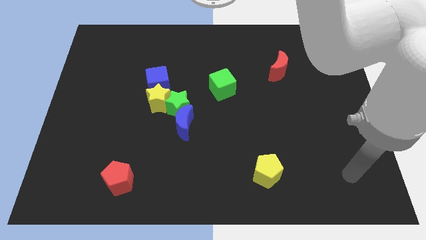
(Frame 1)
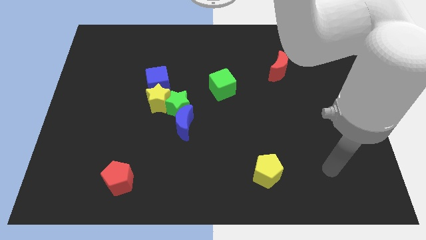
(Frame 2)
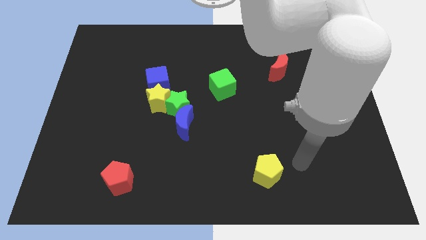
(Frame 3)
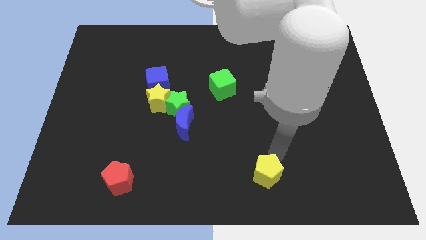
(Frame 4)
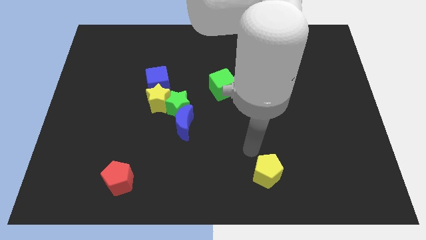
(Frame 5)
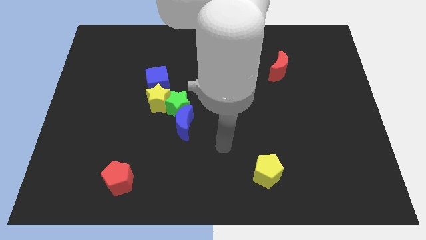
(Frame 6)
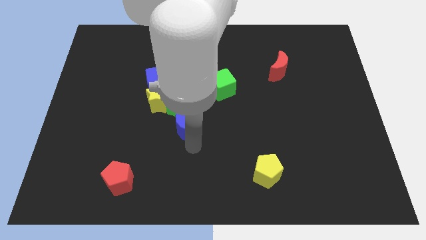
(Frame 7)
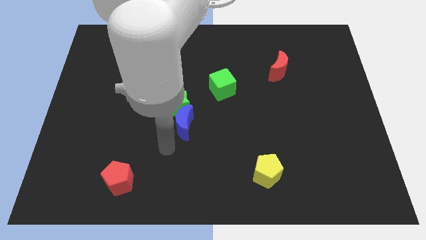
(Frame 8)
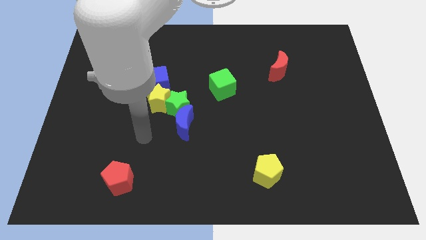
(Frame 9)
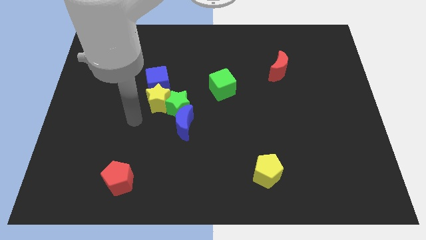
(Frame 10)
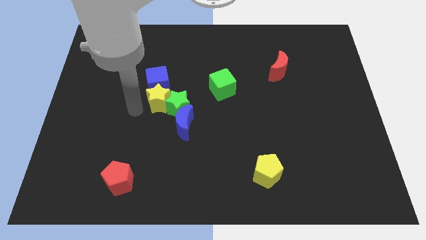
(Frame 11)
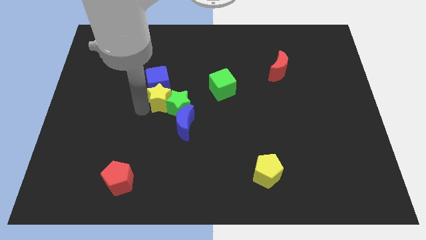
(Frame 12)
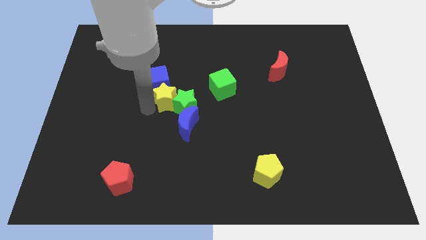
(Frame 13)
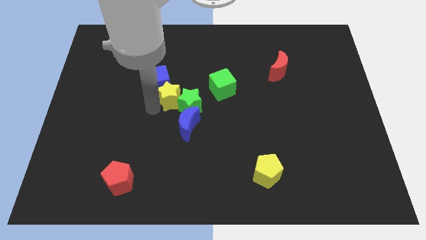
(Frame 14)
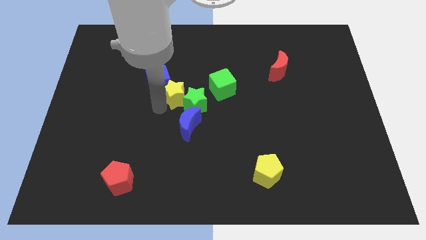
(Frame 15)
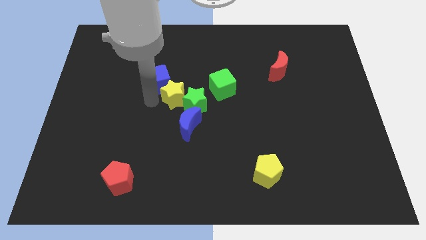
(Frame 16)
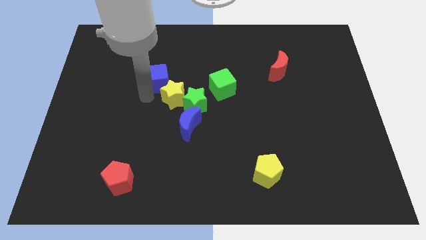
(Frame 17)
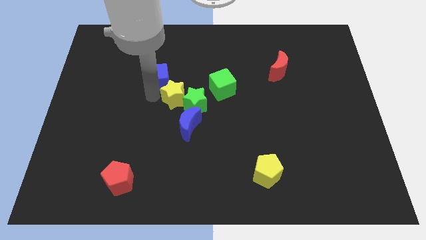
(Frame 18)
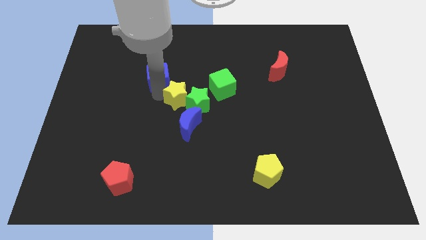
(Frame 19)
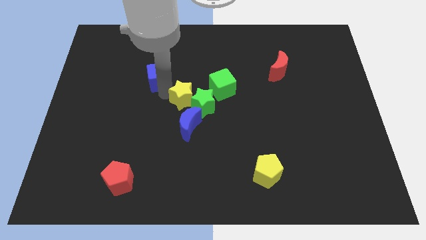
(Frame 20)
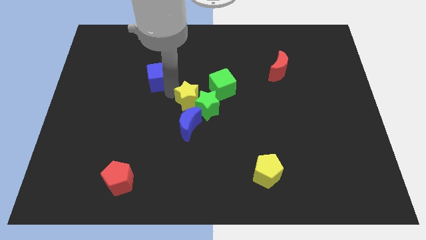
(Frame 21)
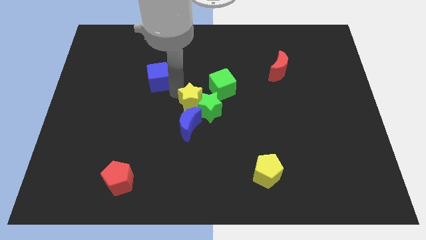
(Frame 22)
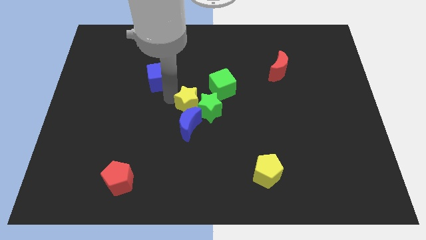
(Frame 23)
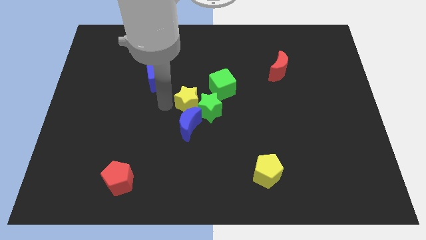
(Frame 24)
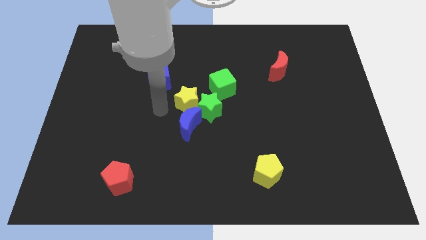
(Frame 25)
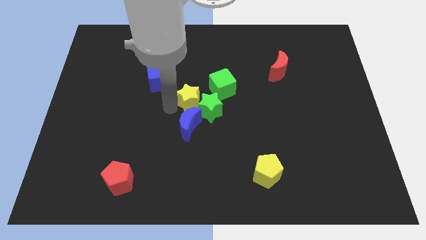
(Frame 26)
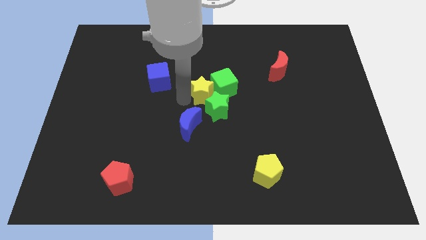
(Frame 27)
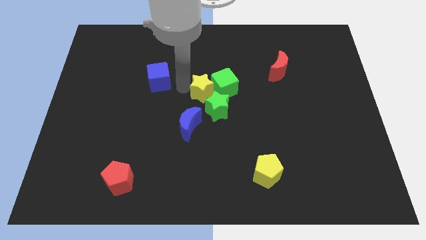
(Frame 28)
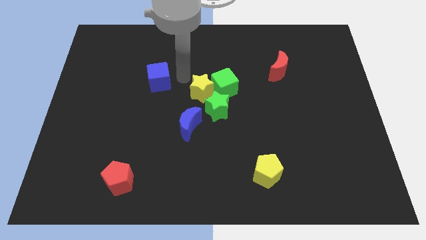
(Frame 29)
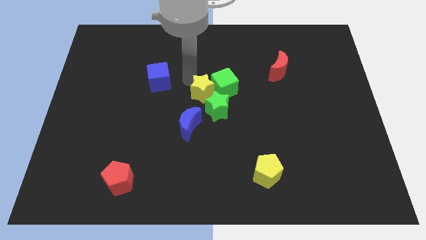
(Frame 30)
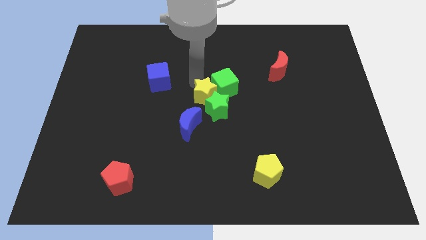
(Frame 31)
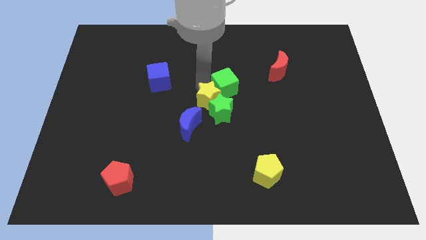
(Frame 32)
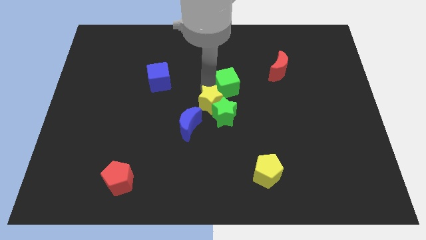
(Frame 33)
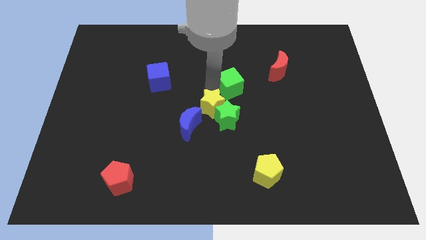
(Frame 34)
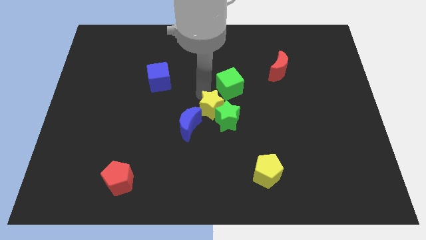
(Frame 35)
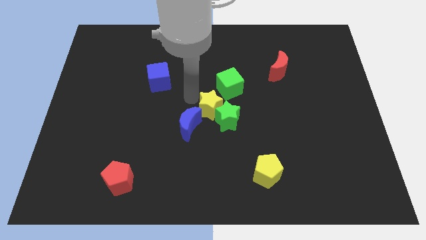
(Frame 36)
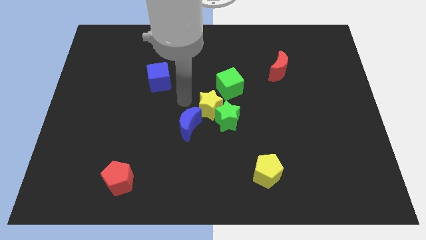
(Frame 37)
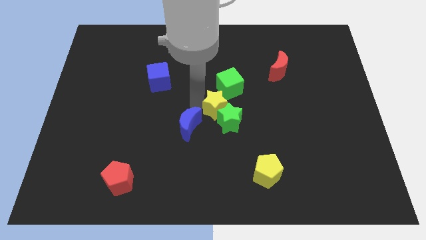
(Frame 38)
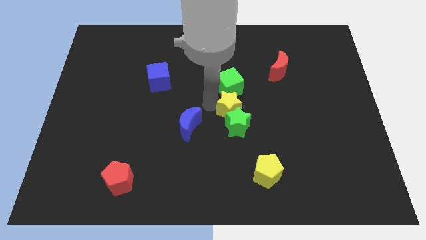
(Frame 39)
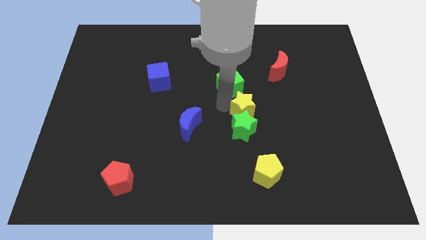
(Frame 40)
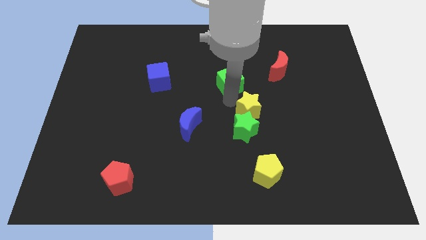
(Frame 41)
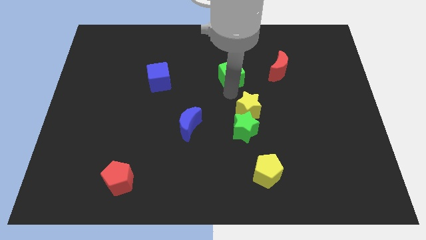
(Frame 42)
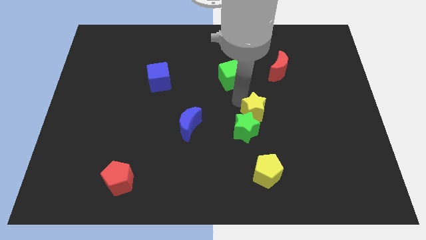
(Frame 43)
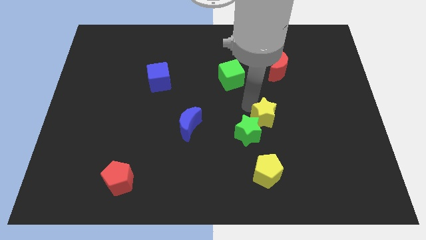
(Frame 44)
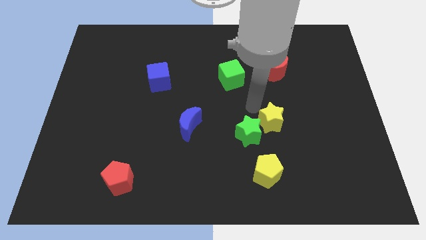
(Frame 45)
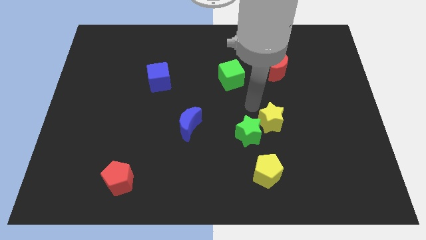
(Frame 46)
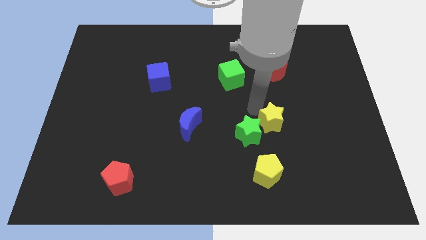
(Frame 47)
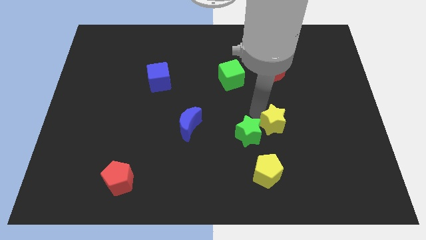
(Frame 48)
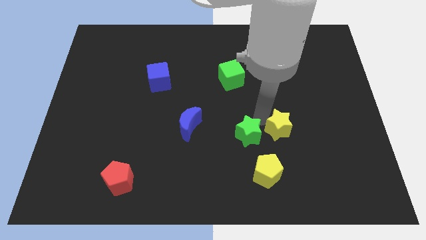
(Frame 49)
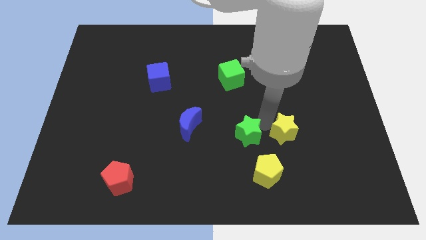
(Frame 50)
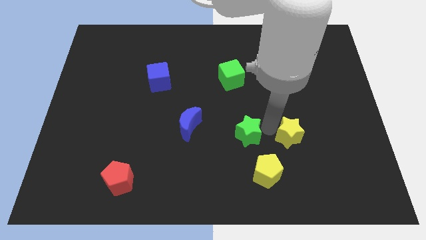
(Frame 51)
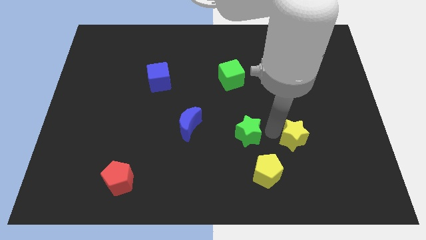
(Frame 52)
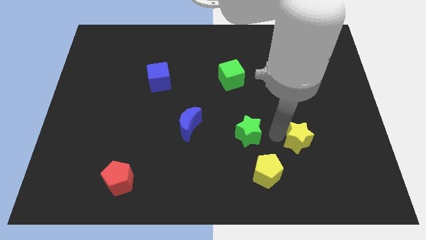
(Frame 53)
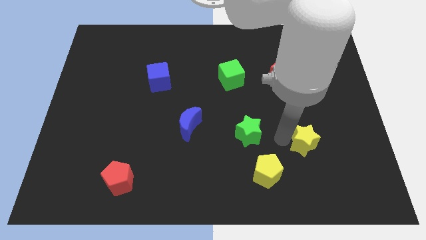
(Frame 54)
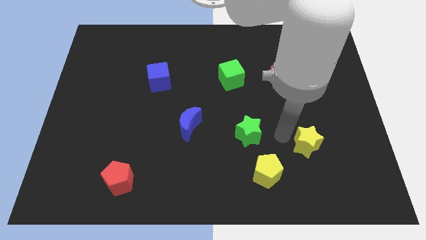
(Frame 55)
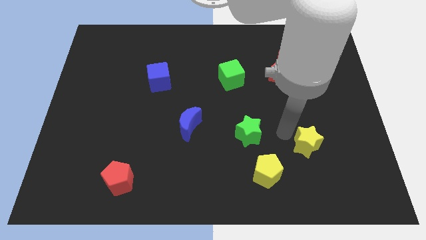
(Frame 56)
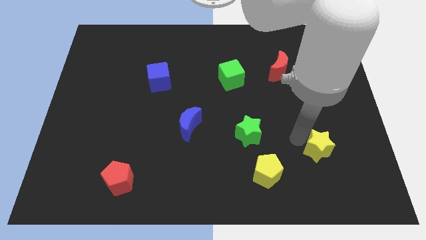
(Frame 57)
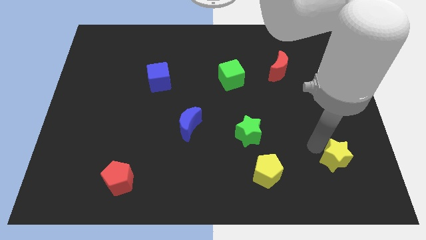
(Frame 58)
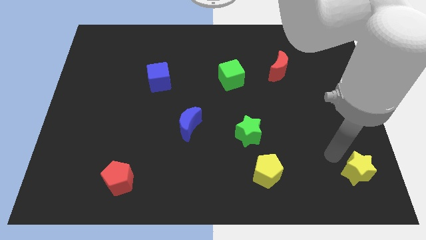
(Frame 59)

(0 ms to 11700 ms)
push the yellow star to the bottom right

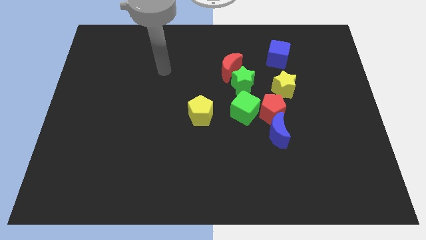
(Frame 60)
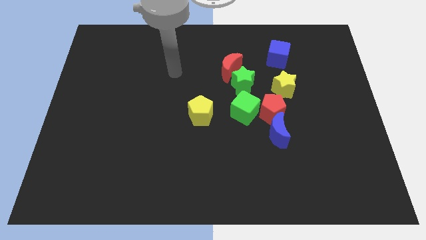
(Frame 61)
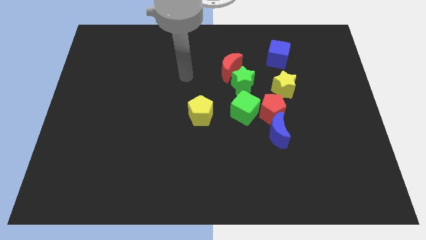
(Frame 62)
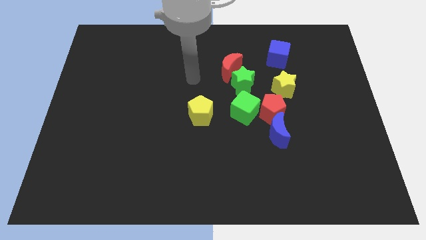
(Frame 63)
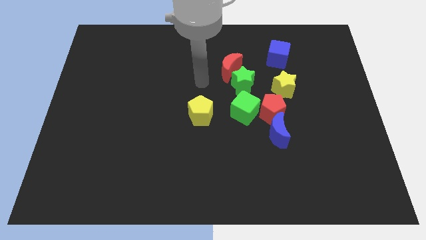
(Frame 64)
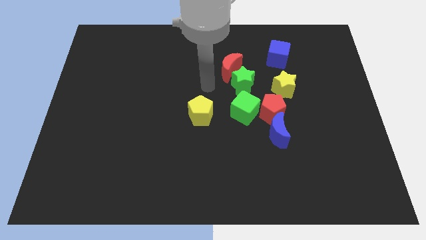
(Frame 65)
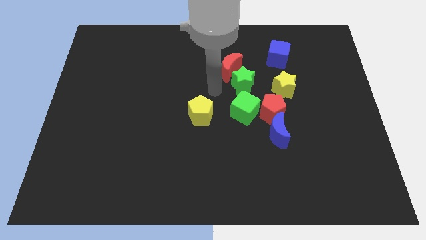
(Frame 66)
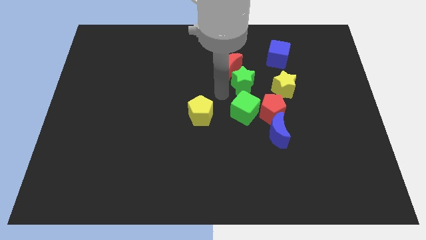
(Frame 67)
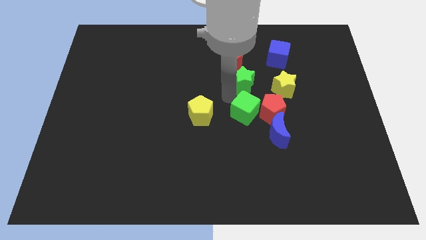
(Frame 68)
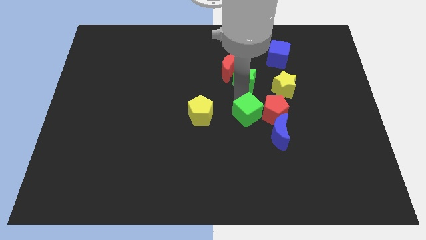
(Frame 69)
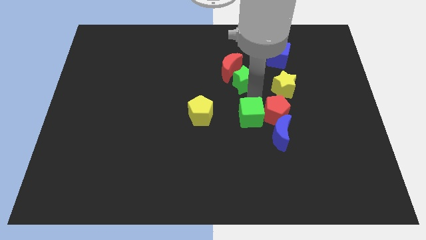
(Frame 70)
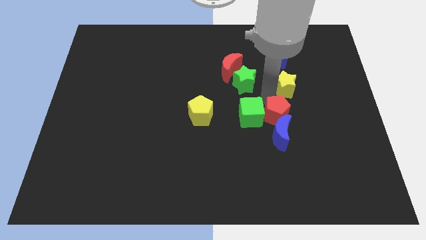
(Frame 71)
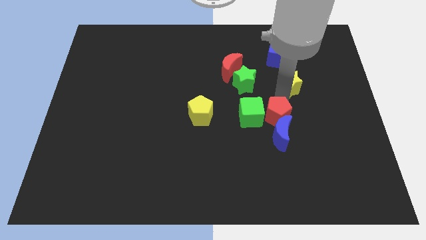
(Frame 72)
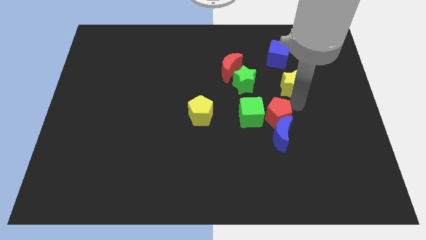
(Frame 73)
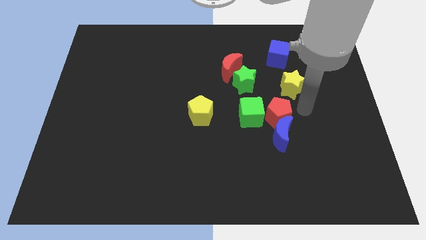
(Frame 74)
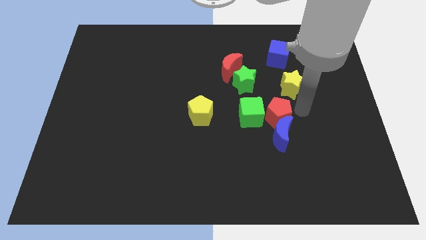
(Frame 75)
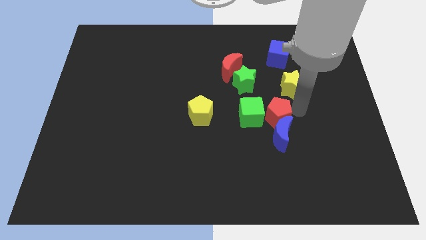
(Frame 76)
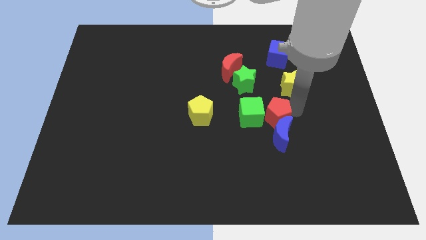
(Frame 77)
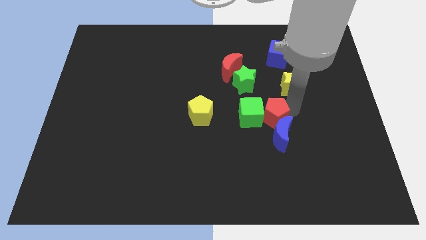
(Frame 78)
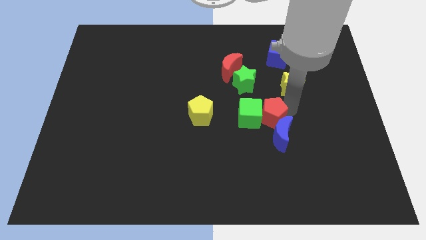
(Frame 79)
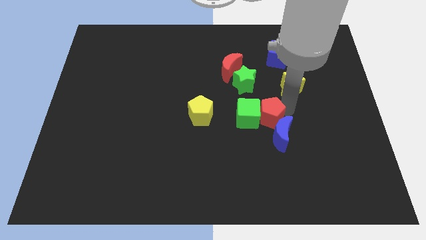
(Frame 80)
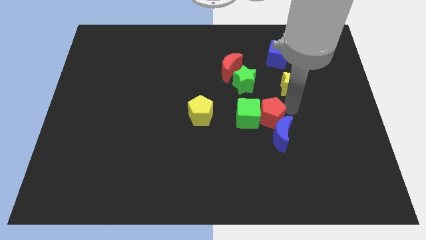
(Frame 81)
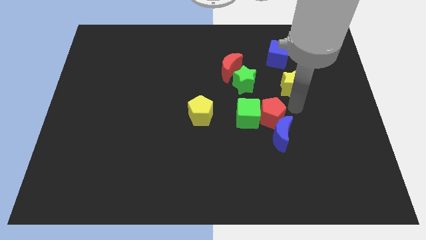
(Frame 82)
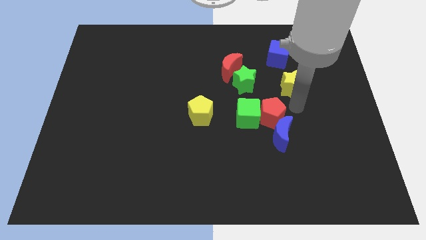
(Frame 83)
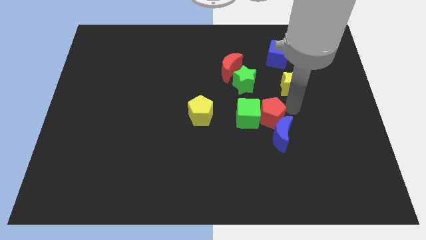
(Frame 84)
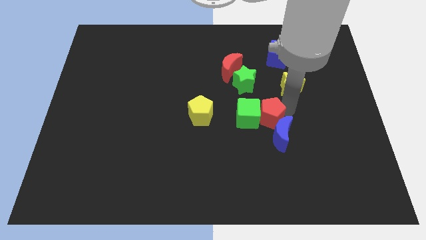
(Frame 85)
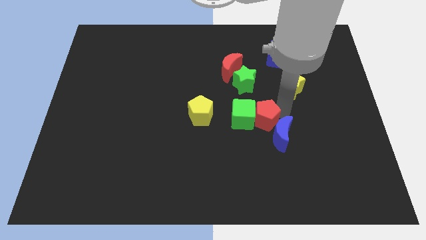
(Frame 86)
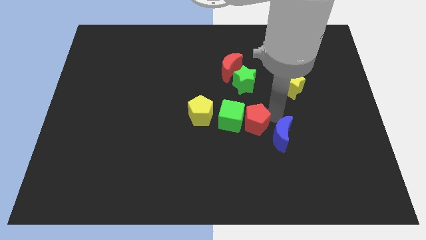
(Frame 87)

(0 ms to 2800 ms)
move the red pentagon to the center of the board
